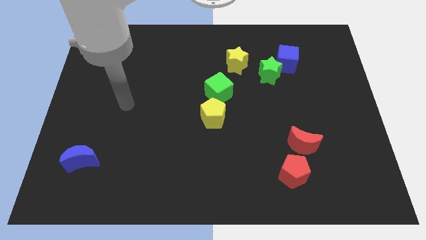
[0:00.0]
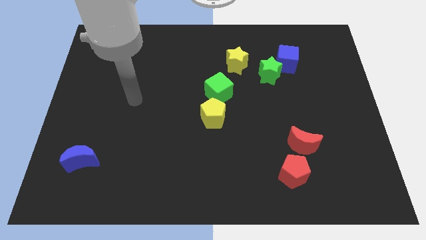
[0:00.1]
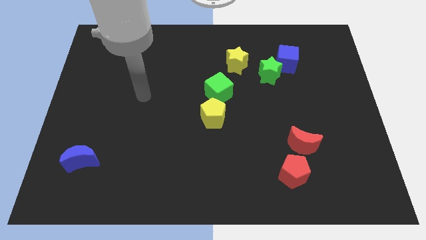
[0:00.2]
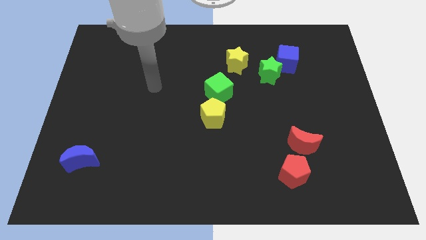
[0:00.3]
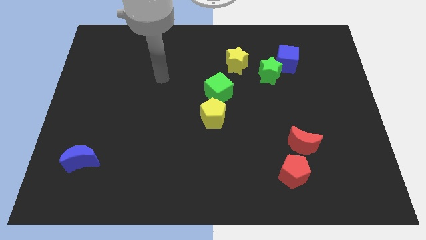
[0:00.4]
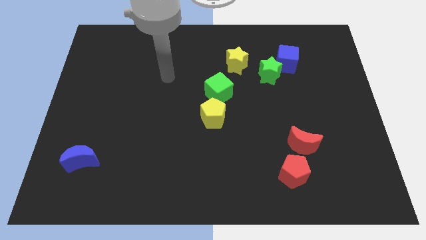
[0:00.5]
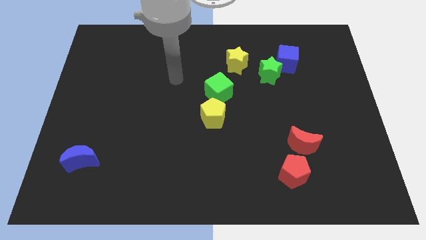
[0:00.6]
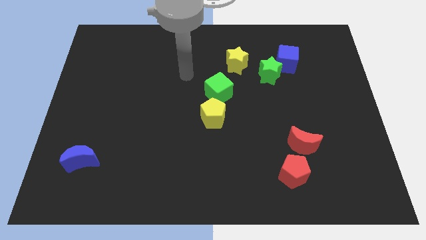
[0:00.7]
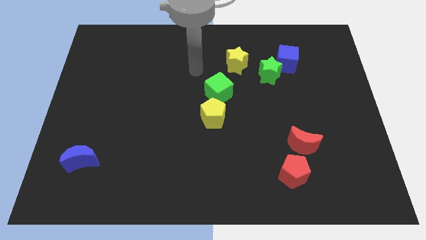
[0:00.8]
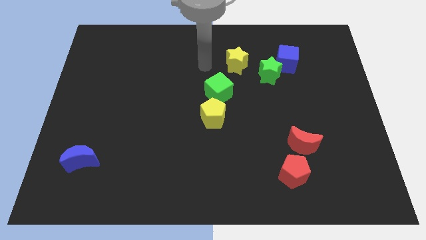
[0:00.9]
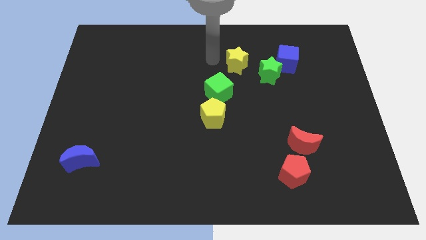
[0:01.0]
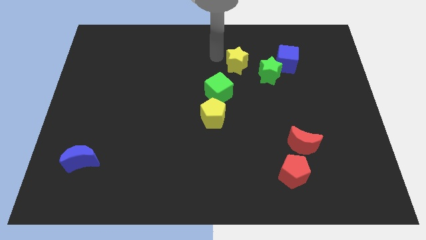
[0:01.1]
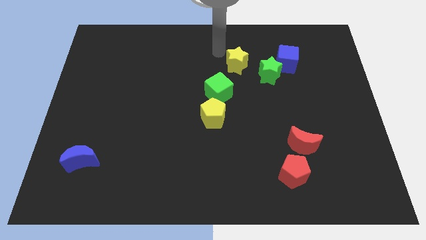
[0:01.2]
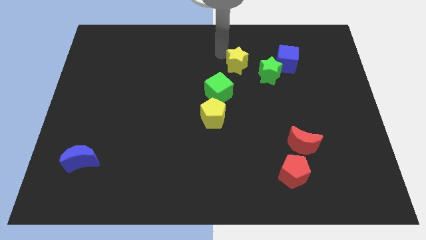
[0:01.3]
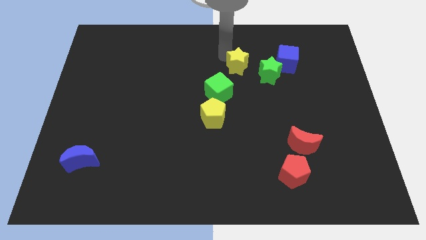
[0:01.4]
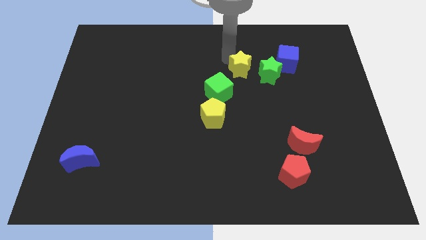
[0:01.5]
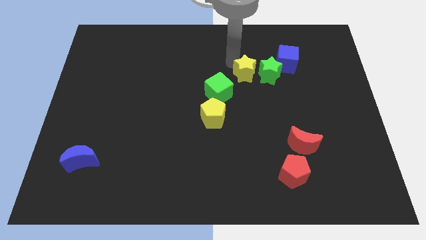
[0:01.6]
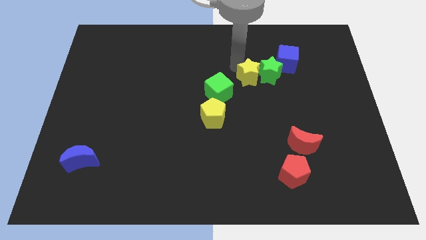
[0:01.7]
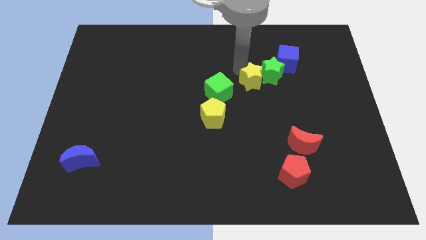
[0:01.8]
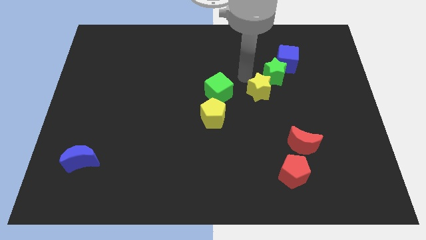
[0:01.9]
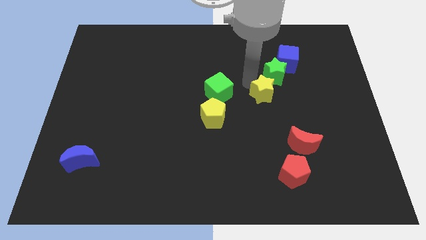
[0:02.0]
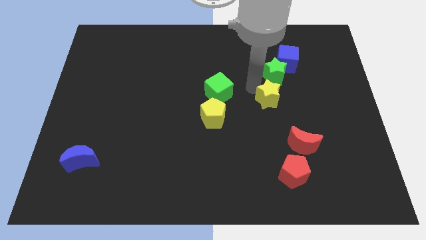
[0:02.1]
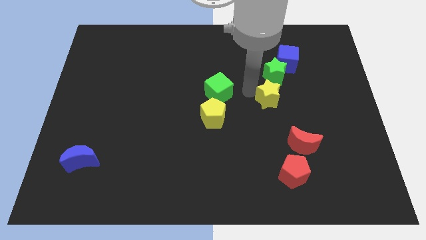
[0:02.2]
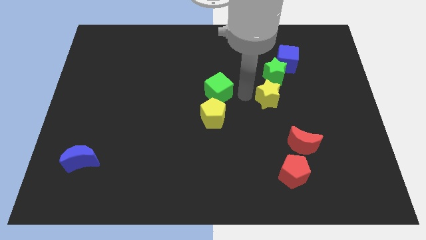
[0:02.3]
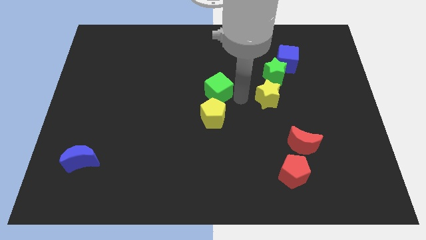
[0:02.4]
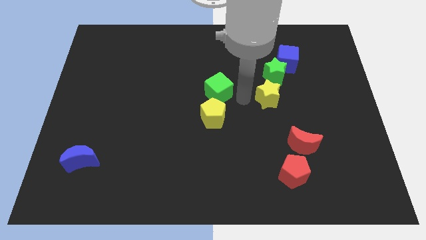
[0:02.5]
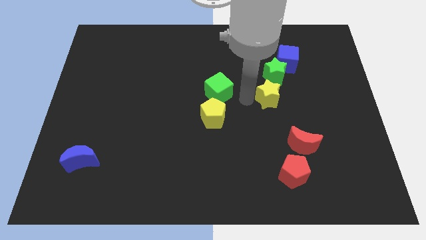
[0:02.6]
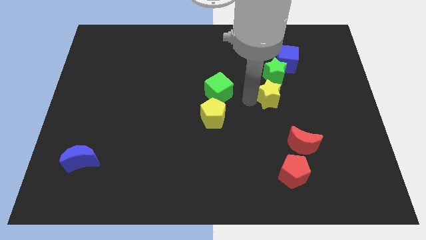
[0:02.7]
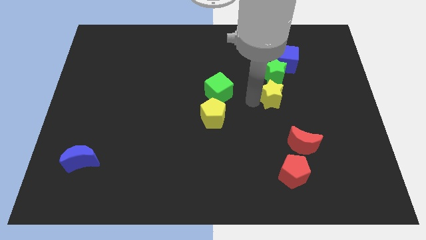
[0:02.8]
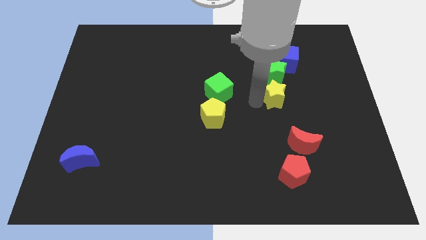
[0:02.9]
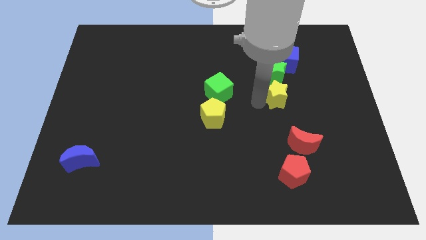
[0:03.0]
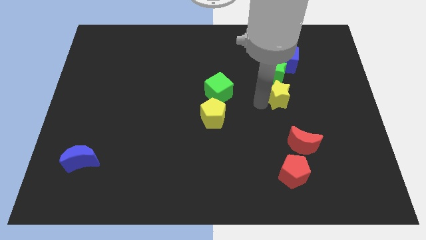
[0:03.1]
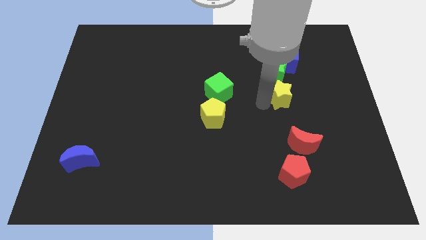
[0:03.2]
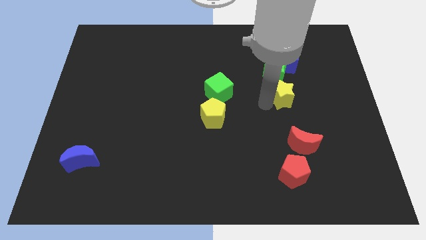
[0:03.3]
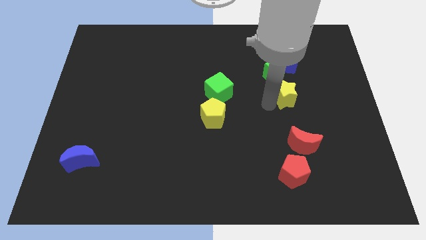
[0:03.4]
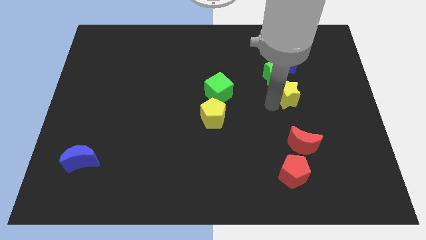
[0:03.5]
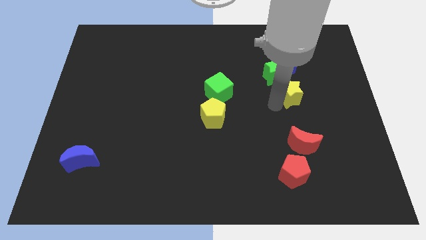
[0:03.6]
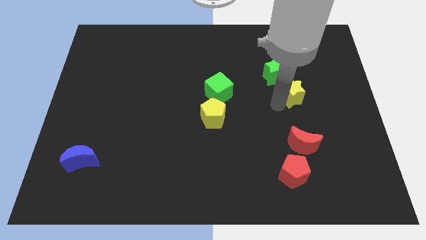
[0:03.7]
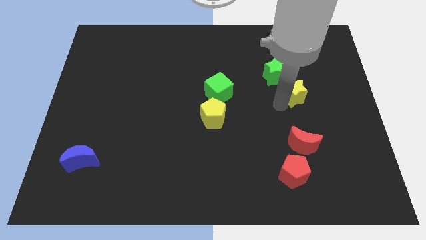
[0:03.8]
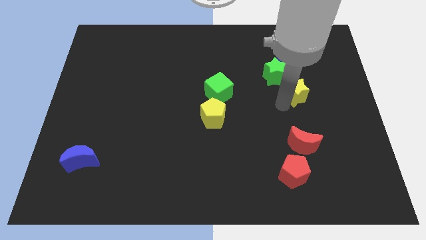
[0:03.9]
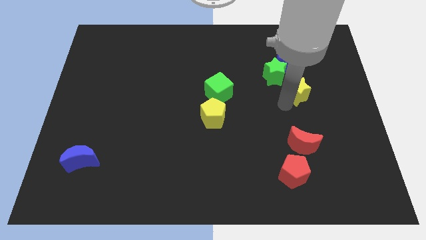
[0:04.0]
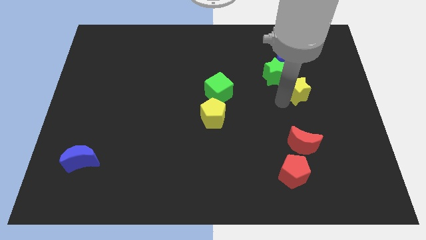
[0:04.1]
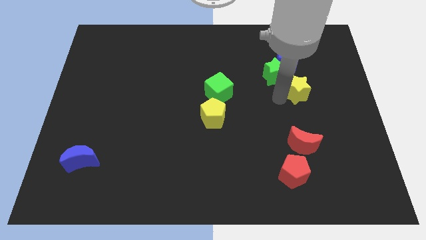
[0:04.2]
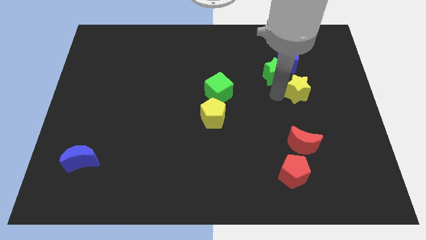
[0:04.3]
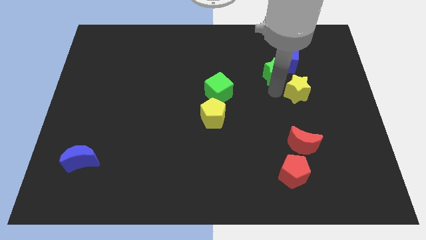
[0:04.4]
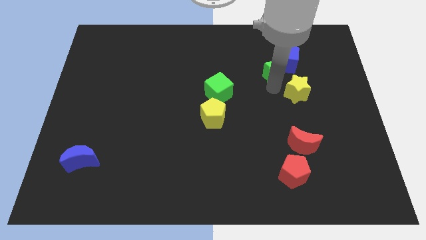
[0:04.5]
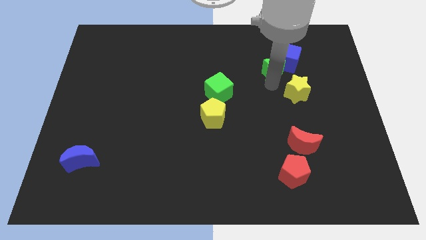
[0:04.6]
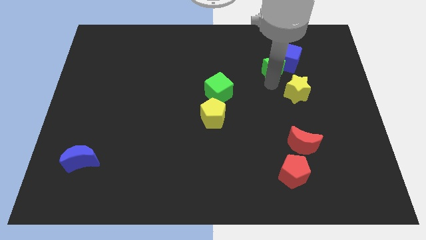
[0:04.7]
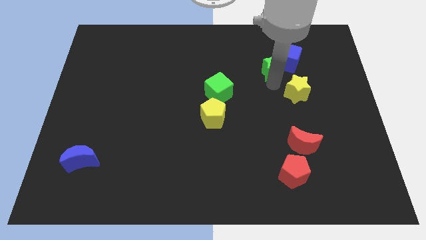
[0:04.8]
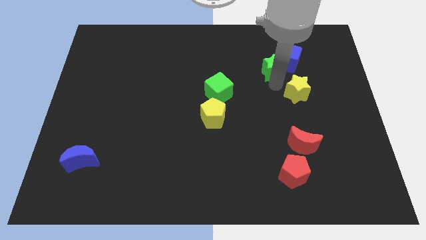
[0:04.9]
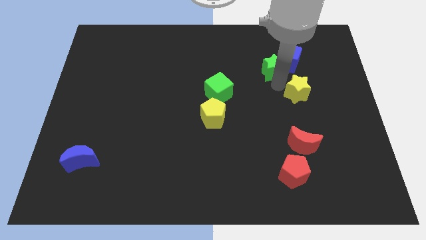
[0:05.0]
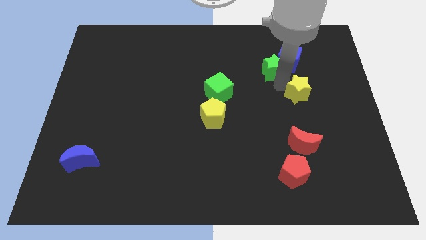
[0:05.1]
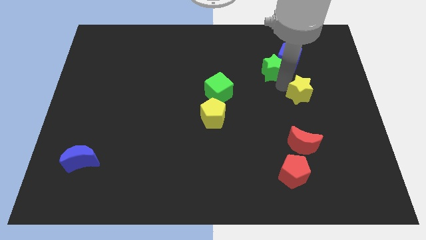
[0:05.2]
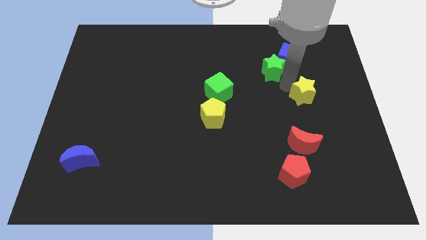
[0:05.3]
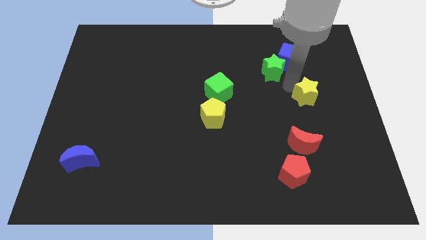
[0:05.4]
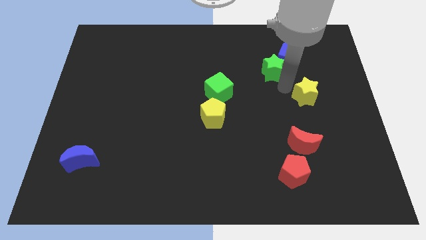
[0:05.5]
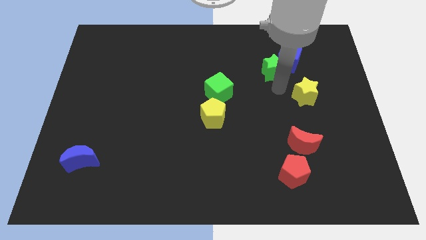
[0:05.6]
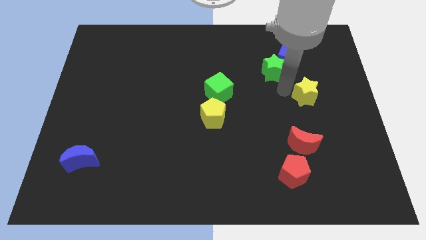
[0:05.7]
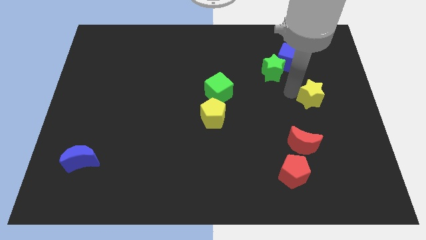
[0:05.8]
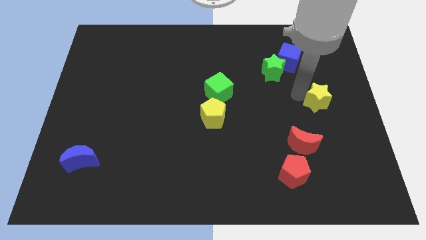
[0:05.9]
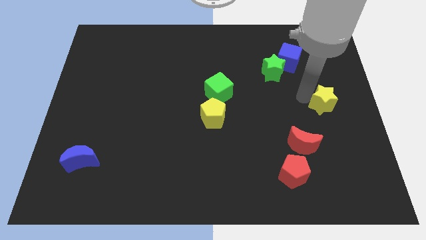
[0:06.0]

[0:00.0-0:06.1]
move the yellow star to the right side of the board

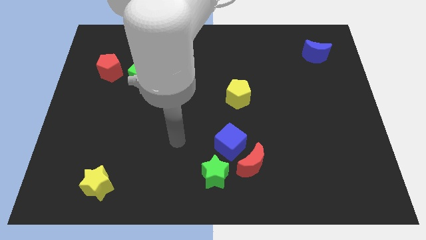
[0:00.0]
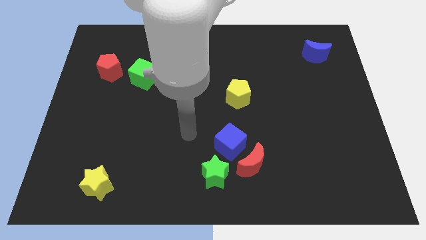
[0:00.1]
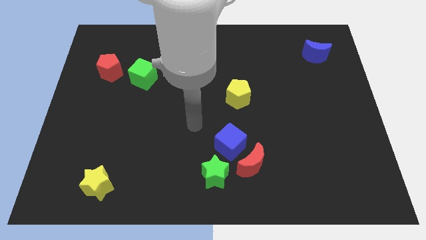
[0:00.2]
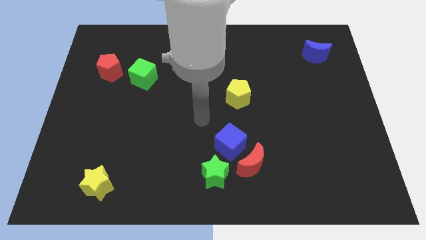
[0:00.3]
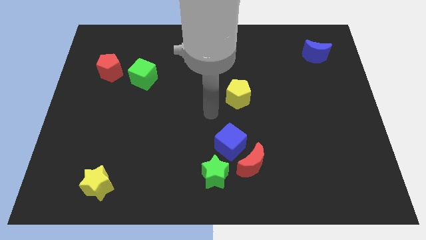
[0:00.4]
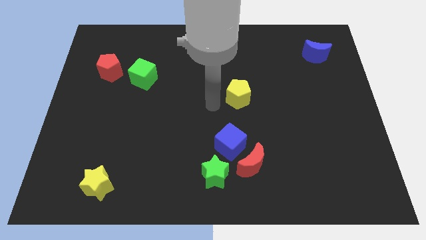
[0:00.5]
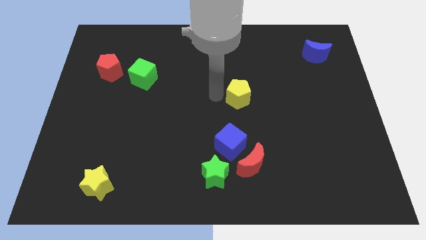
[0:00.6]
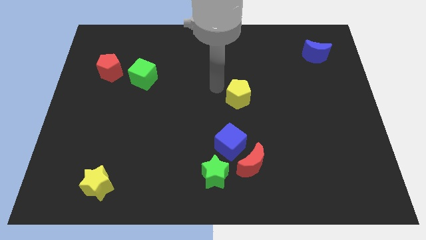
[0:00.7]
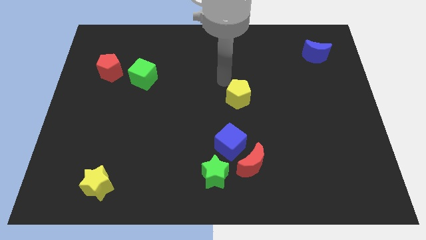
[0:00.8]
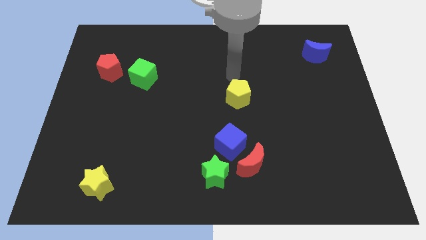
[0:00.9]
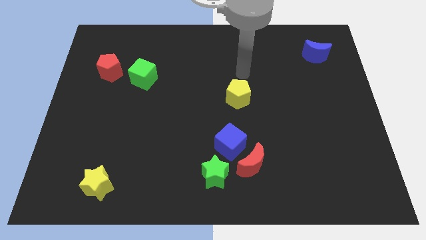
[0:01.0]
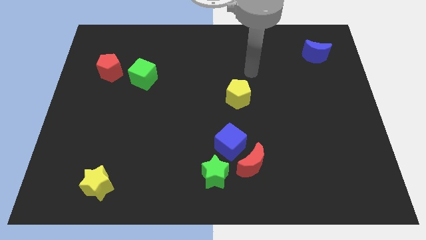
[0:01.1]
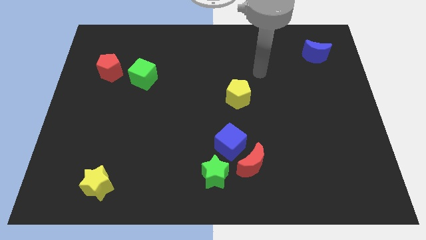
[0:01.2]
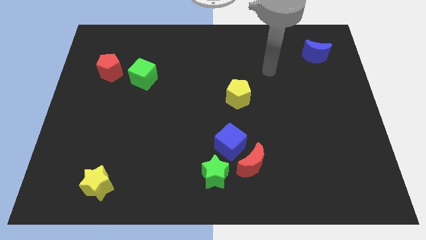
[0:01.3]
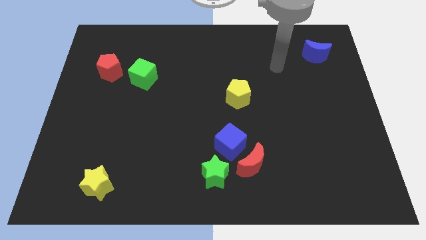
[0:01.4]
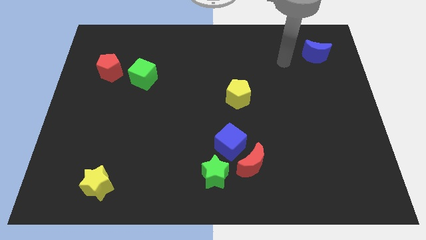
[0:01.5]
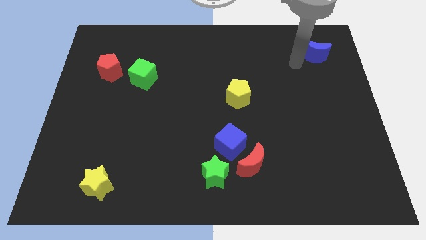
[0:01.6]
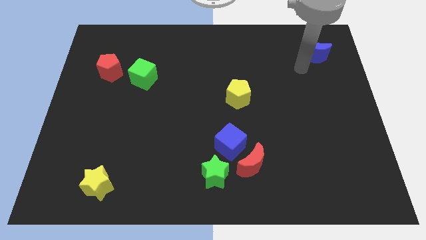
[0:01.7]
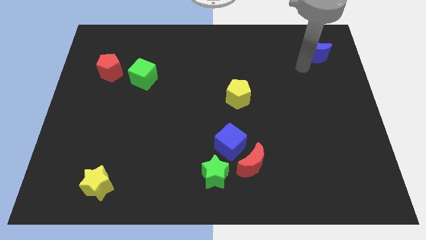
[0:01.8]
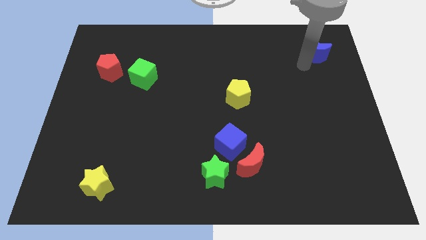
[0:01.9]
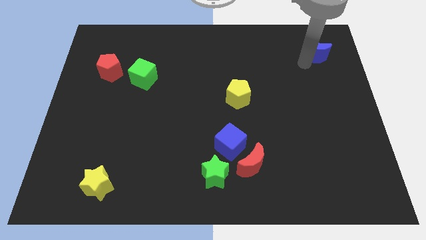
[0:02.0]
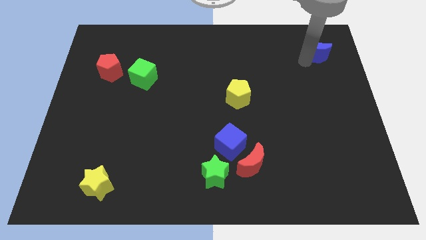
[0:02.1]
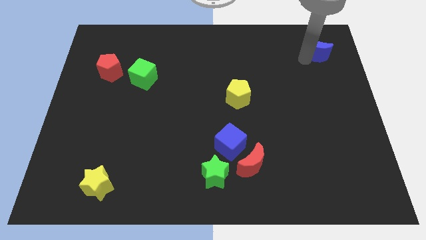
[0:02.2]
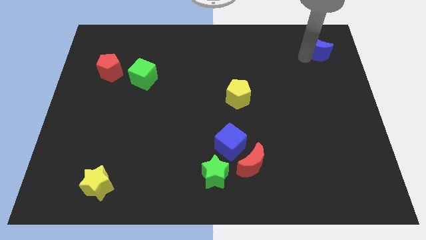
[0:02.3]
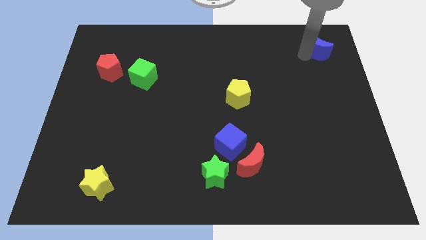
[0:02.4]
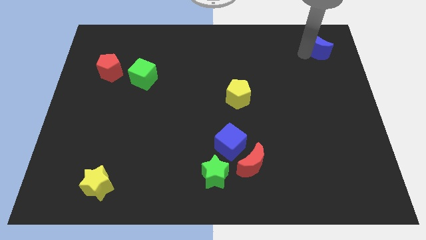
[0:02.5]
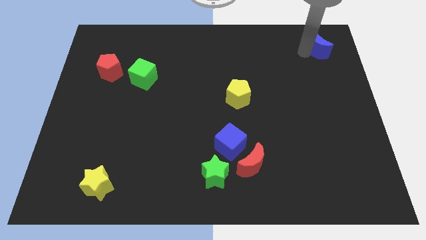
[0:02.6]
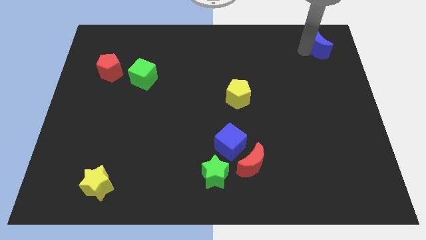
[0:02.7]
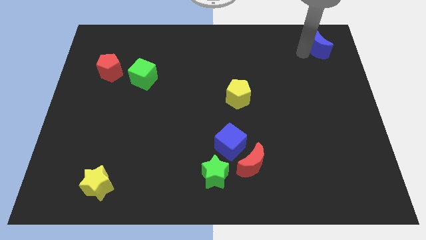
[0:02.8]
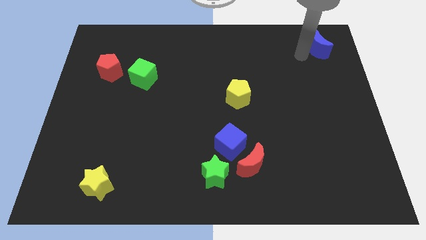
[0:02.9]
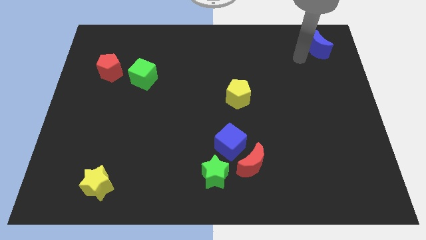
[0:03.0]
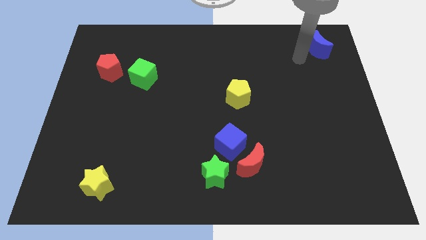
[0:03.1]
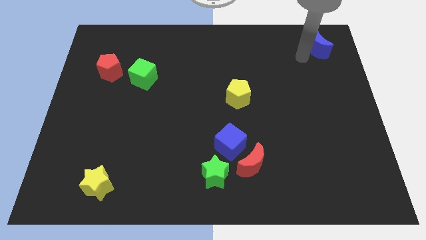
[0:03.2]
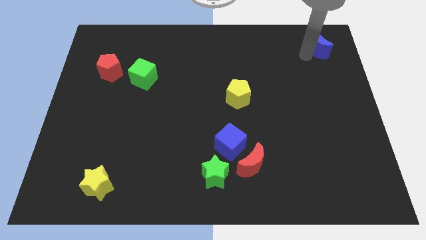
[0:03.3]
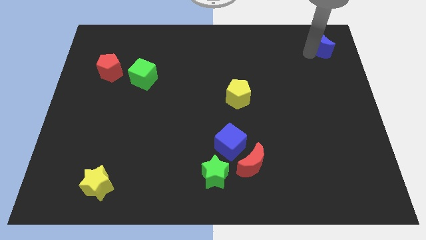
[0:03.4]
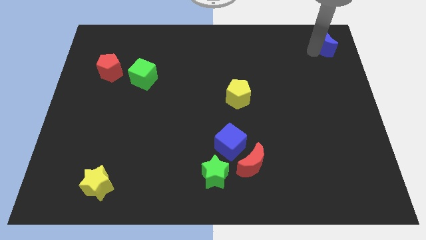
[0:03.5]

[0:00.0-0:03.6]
move the blue moon to the top right of the board
